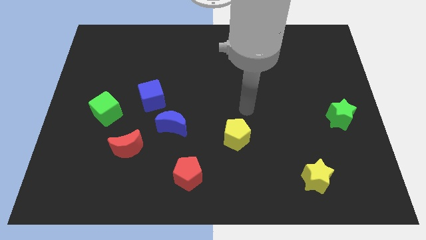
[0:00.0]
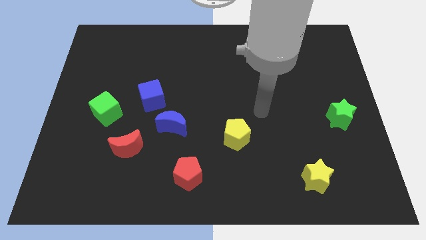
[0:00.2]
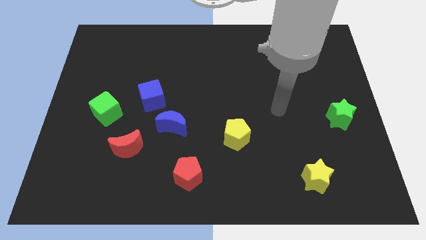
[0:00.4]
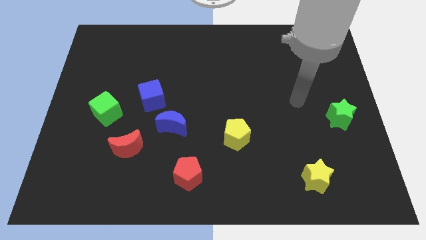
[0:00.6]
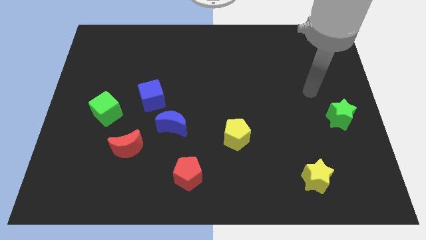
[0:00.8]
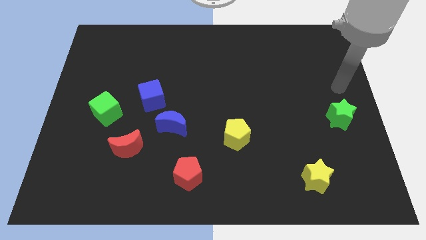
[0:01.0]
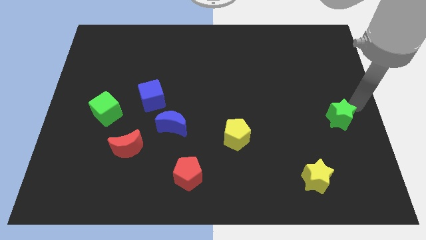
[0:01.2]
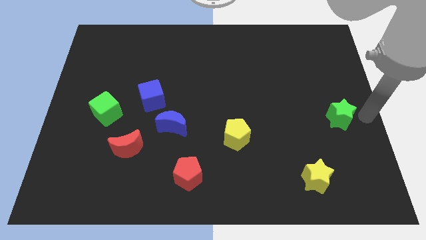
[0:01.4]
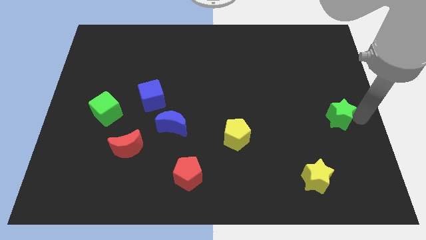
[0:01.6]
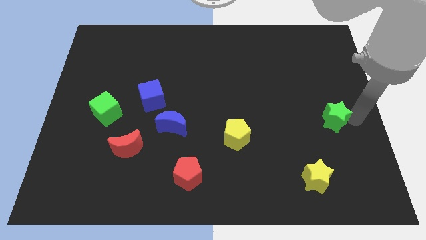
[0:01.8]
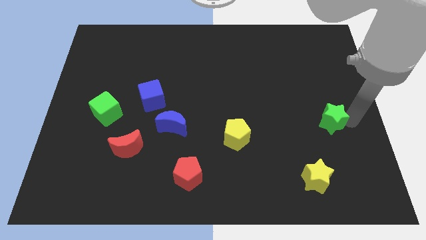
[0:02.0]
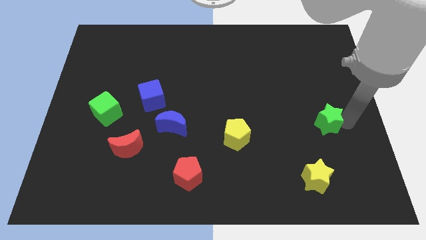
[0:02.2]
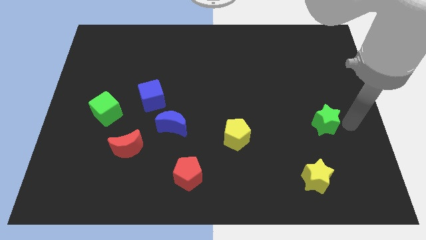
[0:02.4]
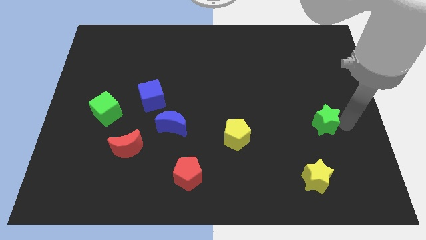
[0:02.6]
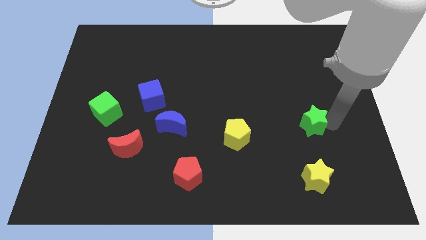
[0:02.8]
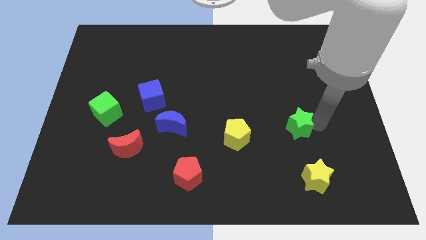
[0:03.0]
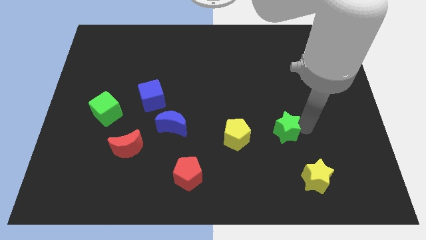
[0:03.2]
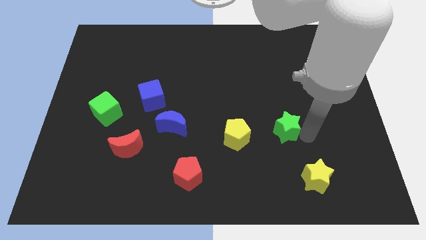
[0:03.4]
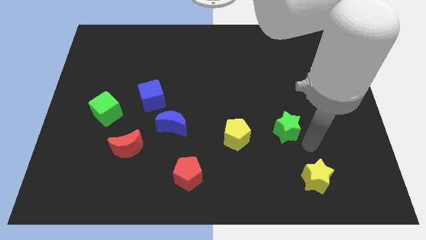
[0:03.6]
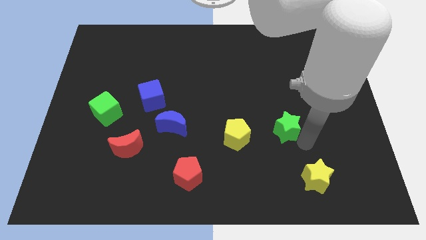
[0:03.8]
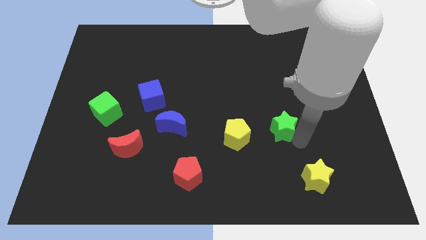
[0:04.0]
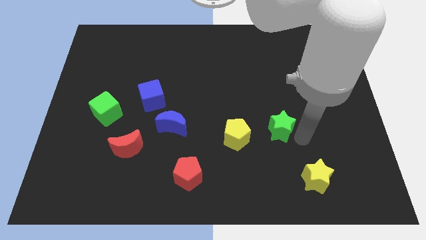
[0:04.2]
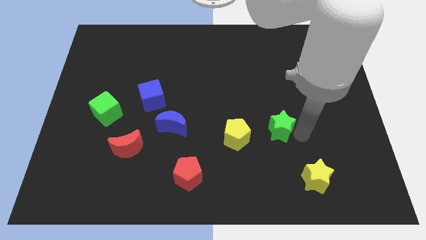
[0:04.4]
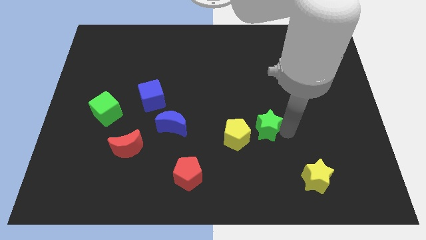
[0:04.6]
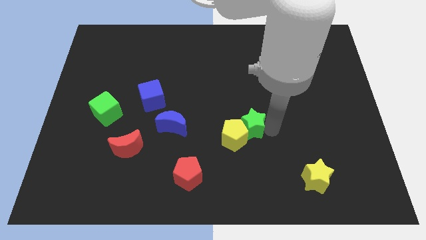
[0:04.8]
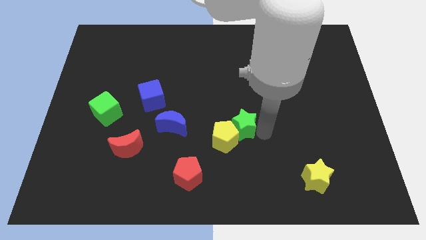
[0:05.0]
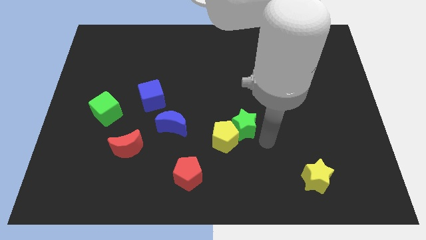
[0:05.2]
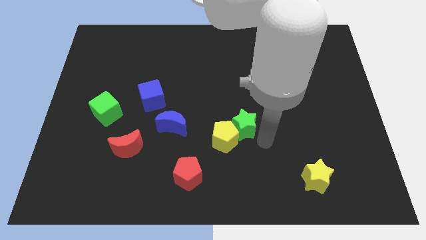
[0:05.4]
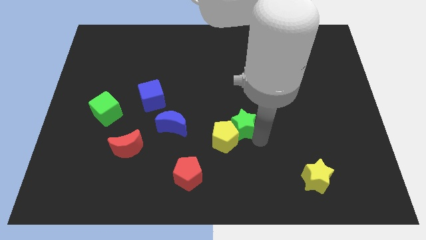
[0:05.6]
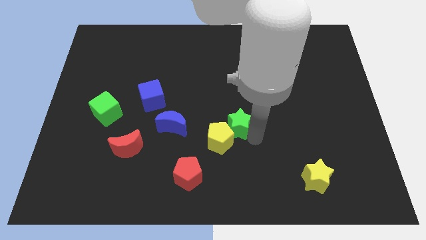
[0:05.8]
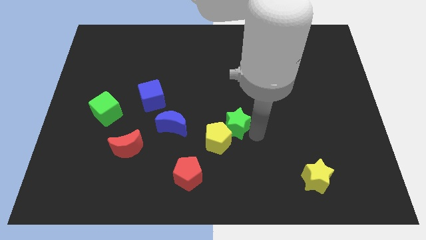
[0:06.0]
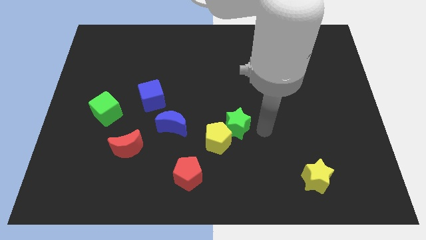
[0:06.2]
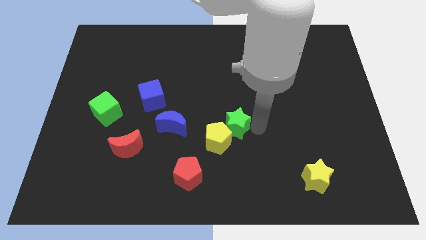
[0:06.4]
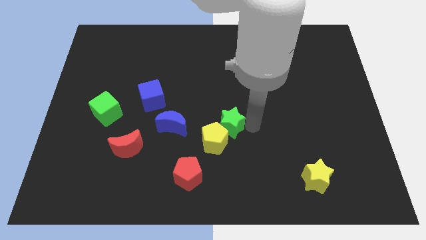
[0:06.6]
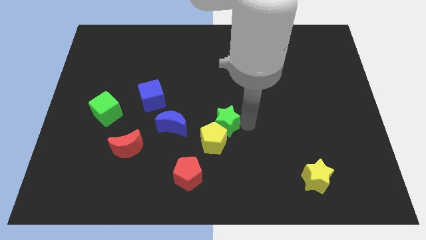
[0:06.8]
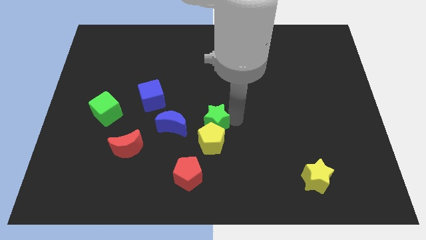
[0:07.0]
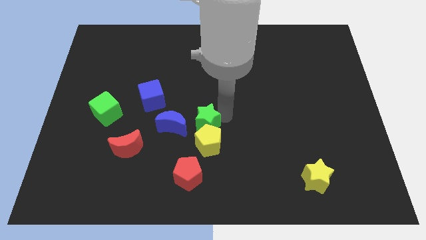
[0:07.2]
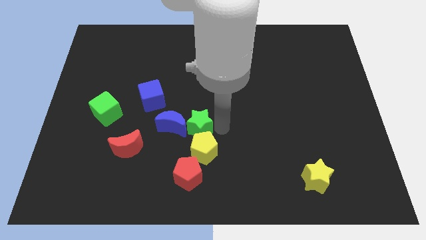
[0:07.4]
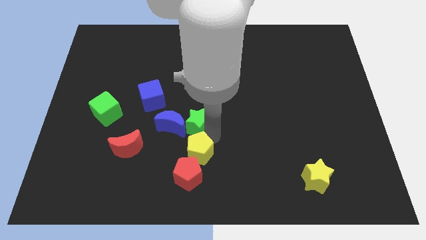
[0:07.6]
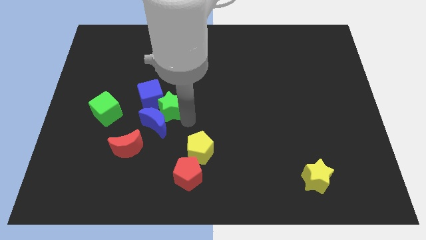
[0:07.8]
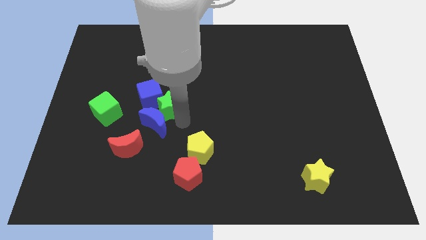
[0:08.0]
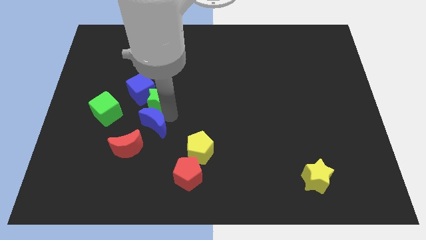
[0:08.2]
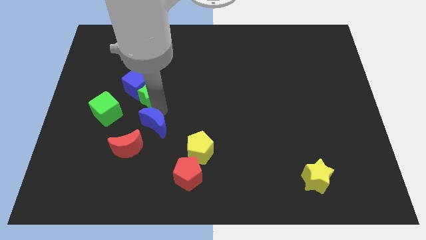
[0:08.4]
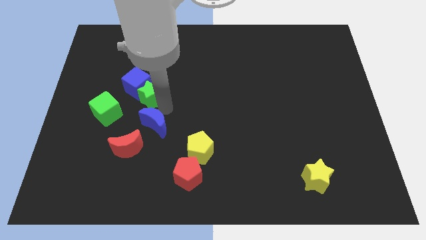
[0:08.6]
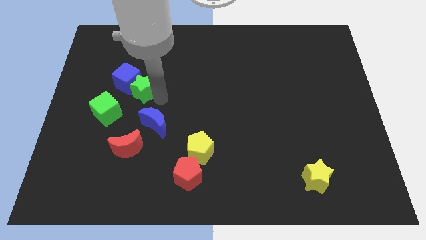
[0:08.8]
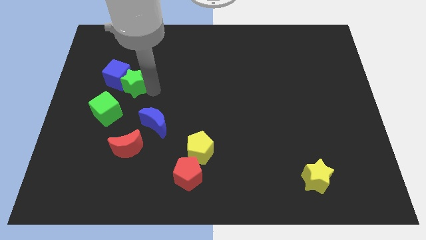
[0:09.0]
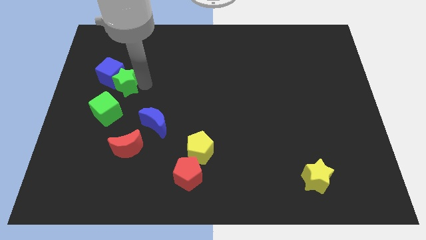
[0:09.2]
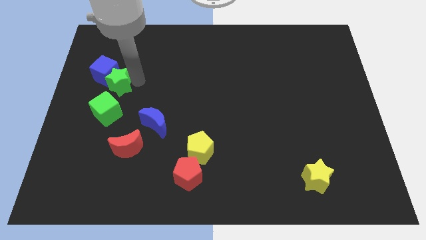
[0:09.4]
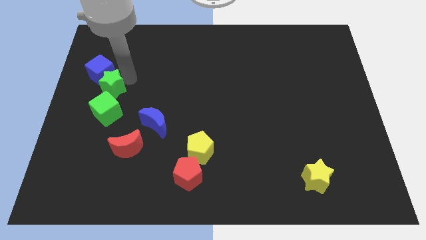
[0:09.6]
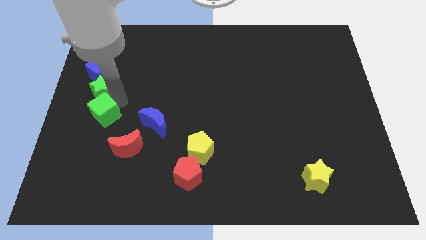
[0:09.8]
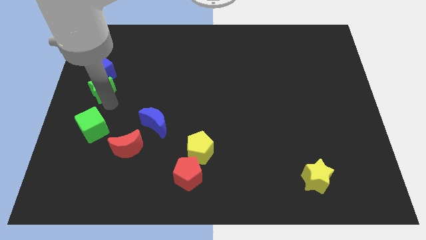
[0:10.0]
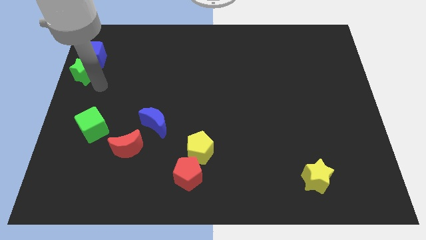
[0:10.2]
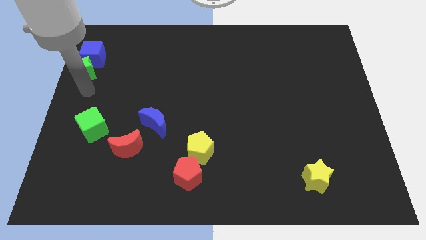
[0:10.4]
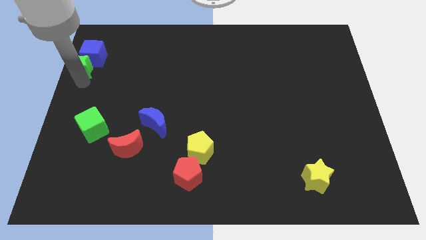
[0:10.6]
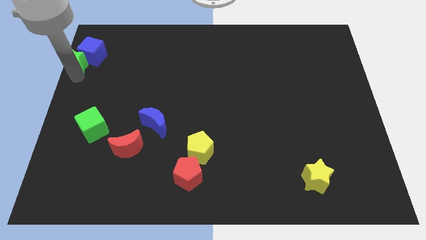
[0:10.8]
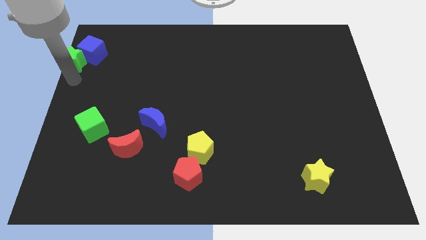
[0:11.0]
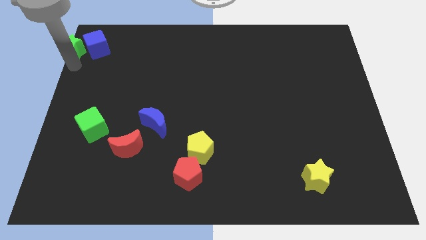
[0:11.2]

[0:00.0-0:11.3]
put the green star to the top left corner
